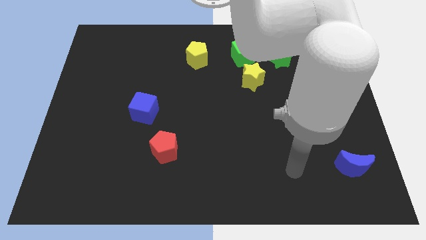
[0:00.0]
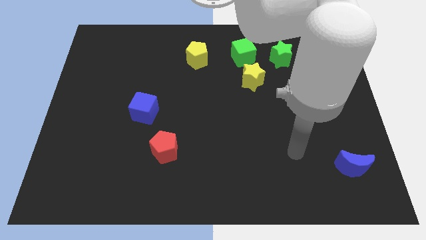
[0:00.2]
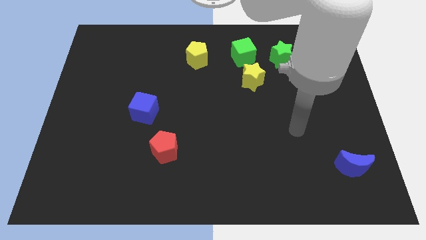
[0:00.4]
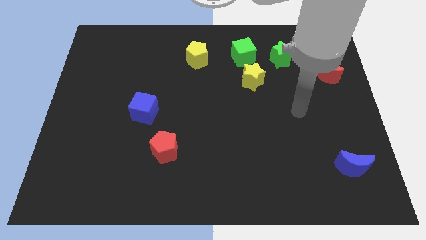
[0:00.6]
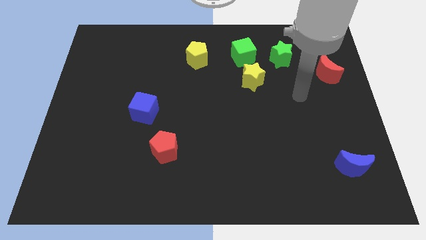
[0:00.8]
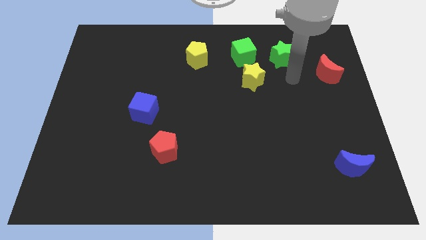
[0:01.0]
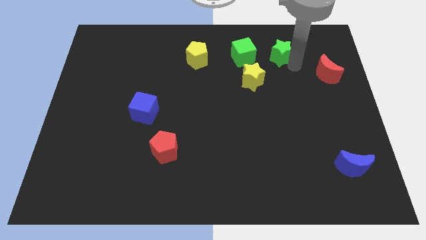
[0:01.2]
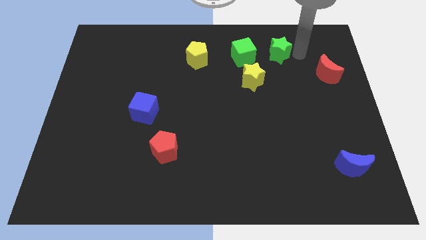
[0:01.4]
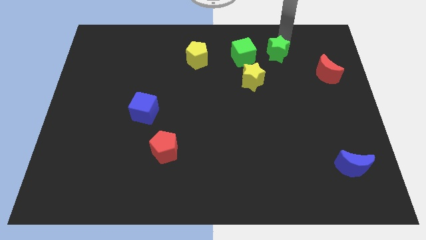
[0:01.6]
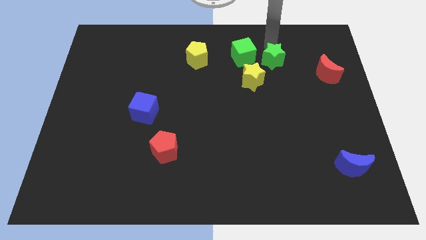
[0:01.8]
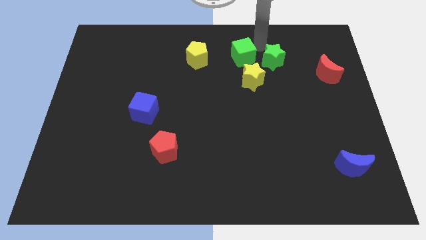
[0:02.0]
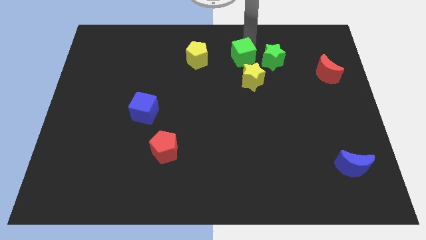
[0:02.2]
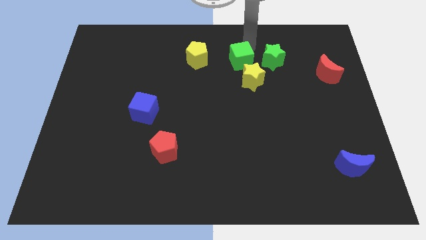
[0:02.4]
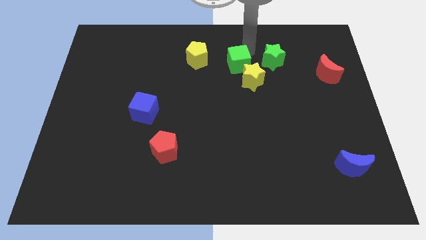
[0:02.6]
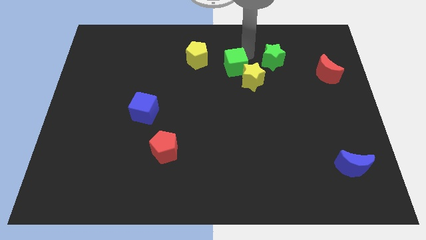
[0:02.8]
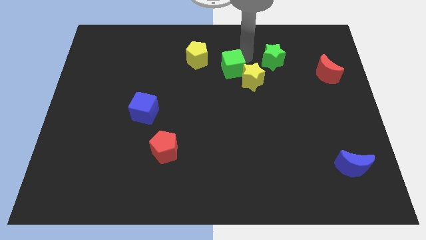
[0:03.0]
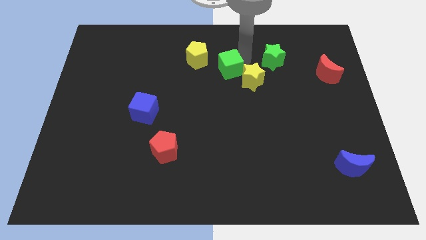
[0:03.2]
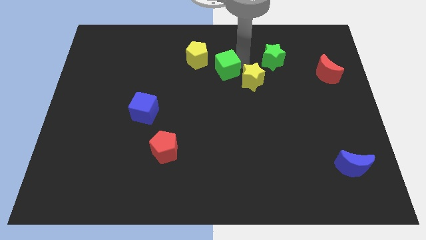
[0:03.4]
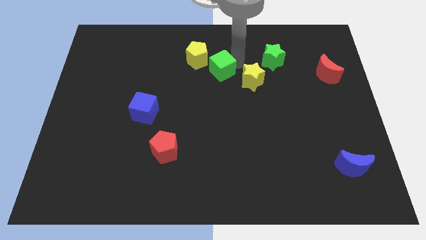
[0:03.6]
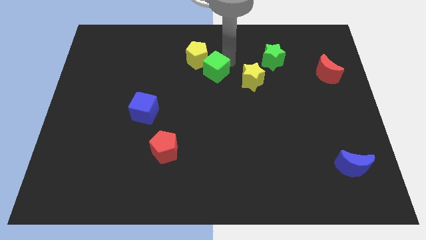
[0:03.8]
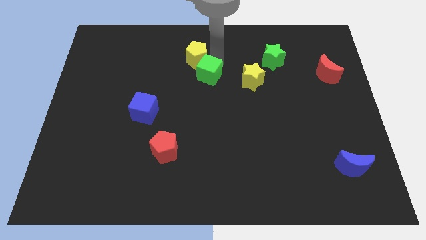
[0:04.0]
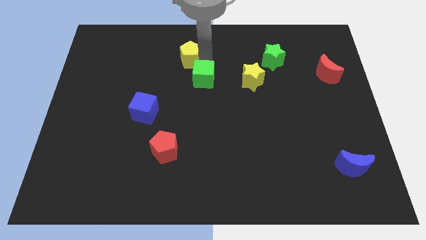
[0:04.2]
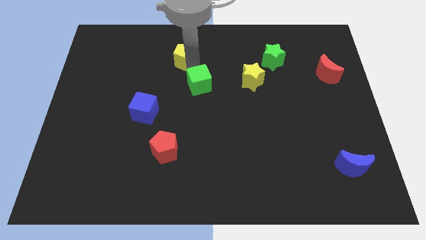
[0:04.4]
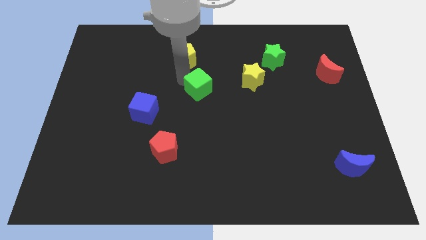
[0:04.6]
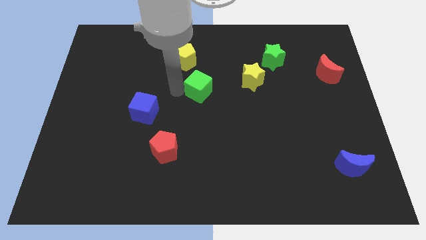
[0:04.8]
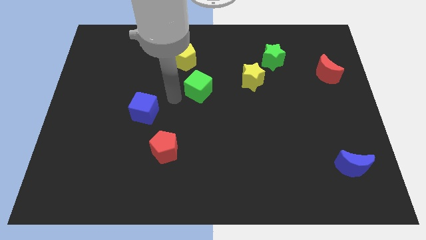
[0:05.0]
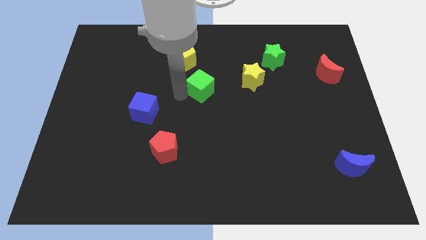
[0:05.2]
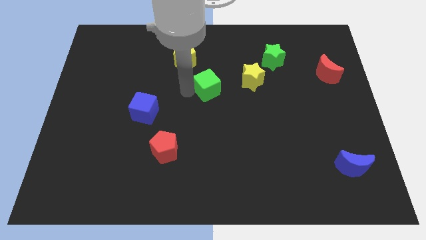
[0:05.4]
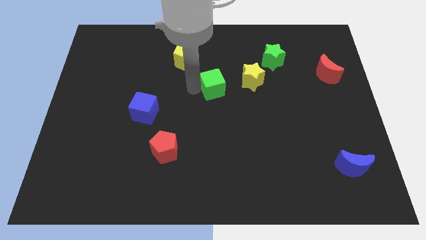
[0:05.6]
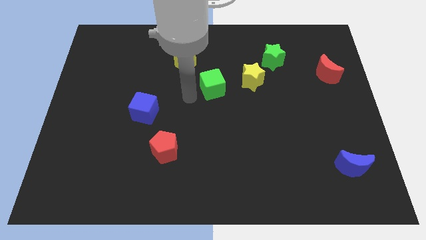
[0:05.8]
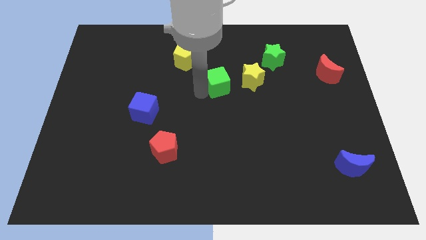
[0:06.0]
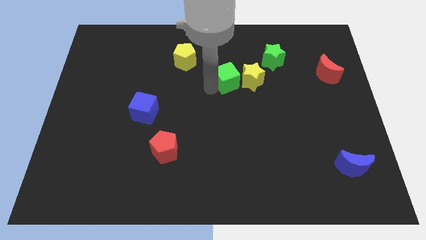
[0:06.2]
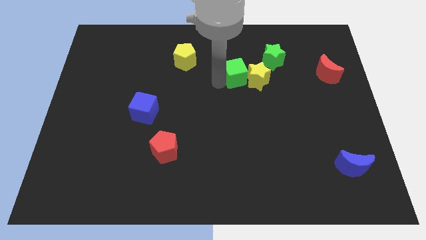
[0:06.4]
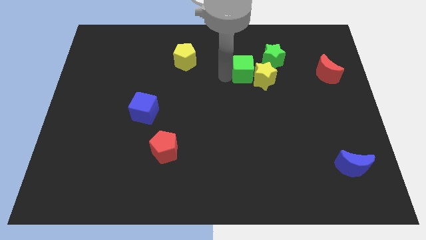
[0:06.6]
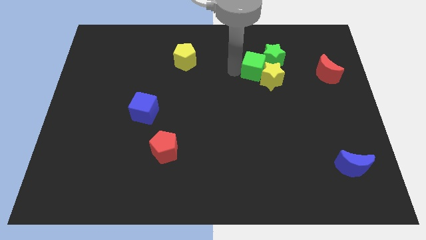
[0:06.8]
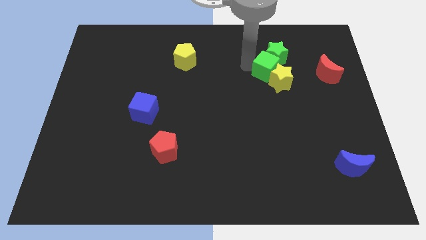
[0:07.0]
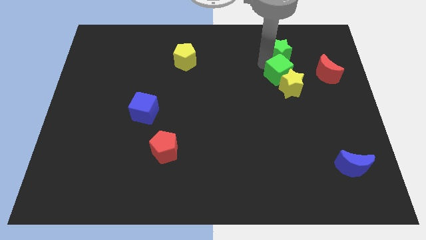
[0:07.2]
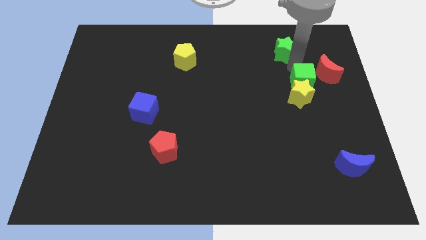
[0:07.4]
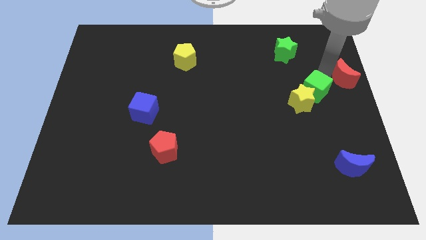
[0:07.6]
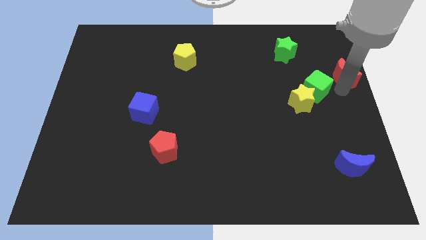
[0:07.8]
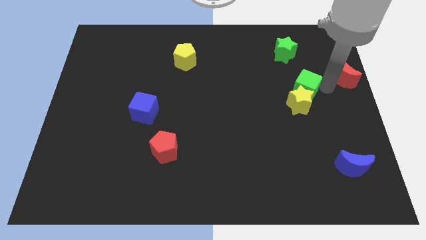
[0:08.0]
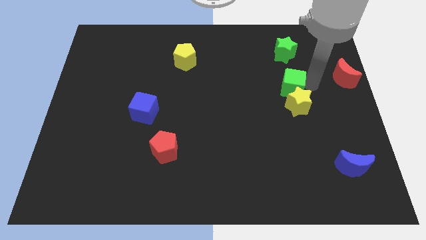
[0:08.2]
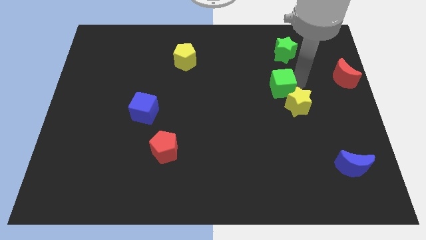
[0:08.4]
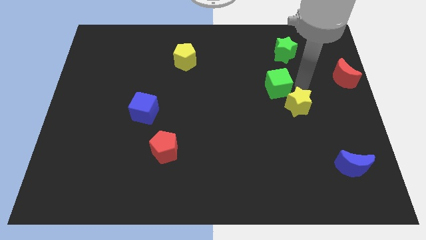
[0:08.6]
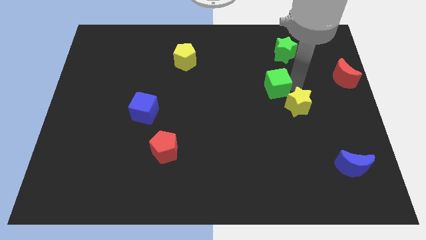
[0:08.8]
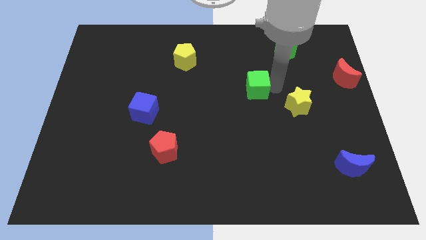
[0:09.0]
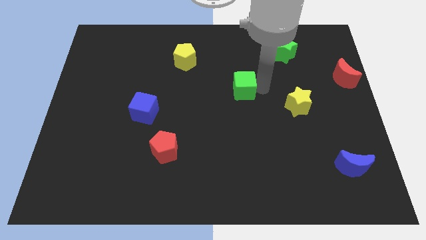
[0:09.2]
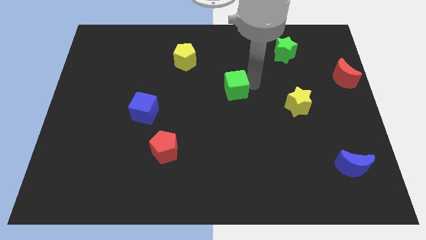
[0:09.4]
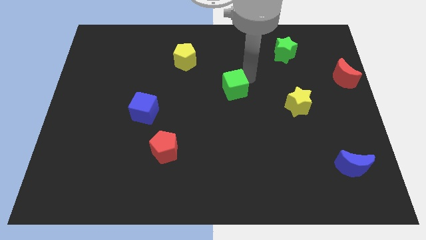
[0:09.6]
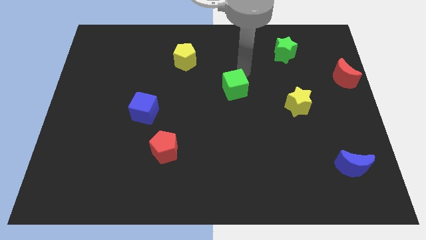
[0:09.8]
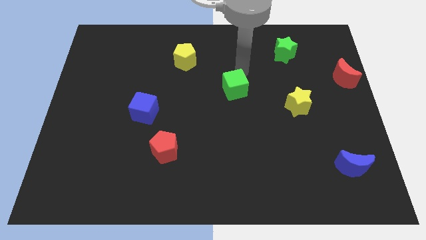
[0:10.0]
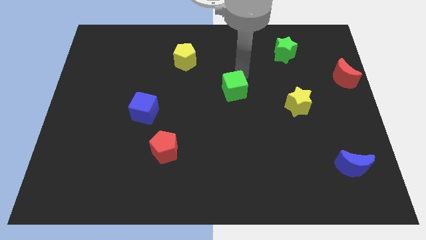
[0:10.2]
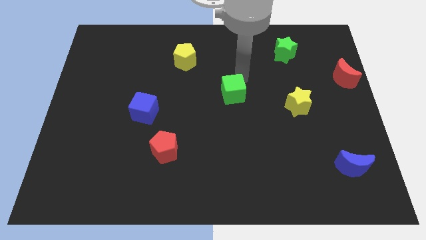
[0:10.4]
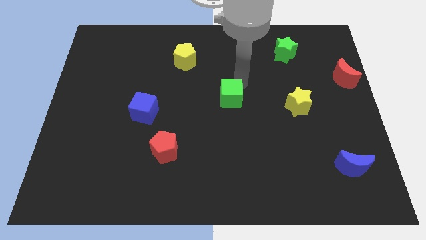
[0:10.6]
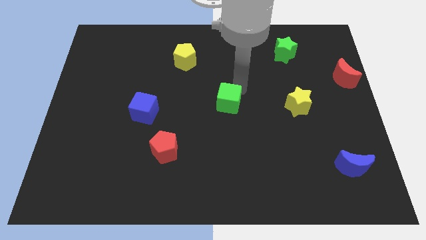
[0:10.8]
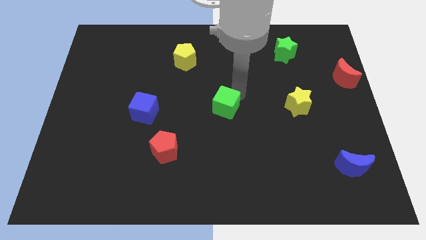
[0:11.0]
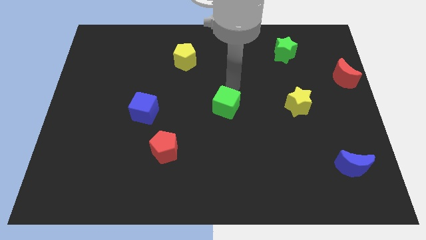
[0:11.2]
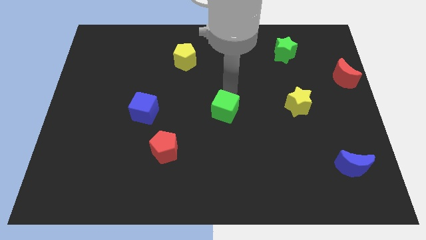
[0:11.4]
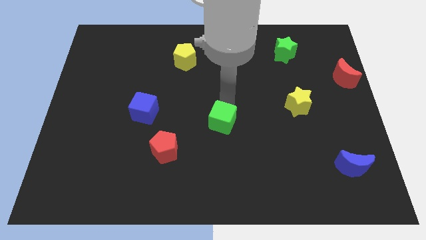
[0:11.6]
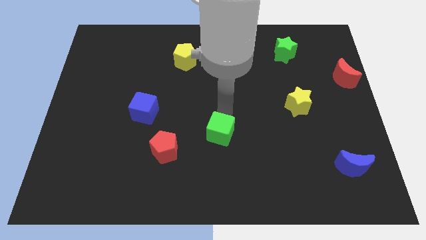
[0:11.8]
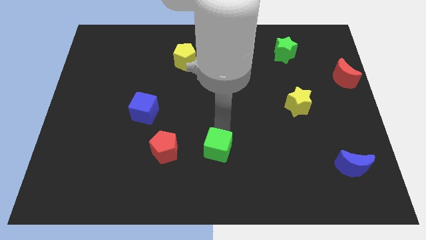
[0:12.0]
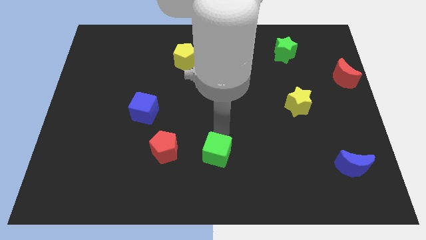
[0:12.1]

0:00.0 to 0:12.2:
put the green cube to the bottom side

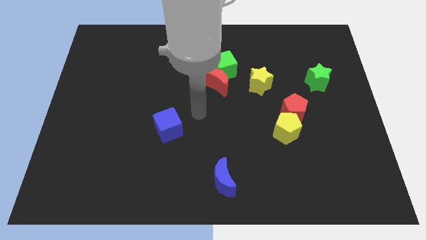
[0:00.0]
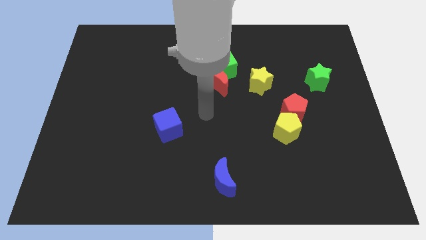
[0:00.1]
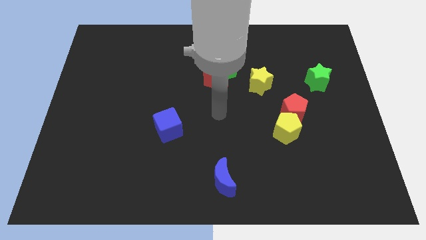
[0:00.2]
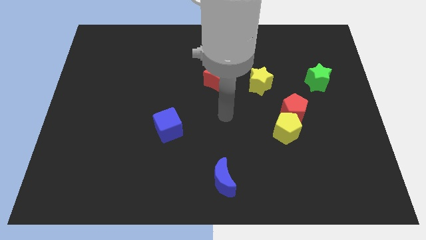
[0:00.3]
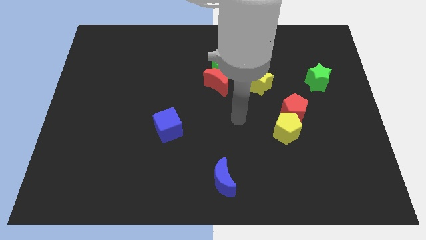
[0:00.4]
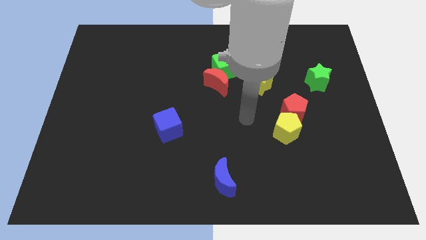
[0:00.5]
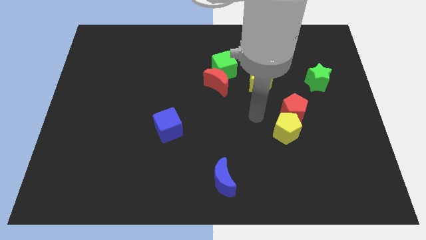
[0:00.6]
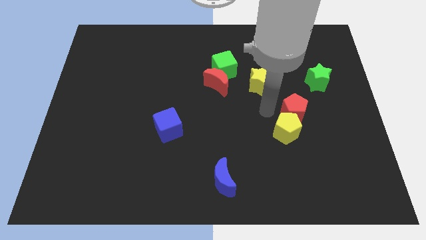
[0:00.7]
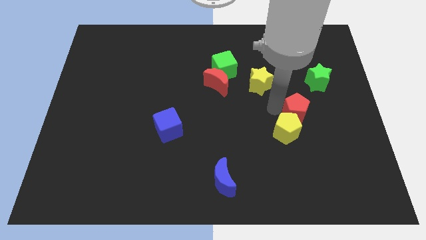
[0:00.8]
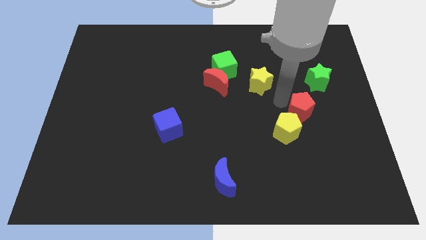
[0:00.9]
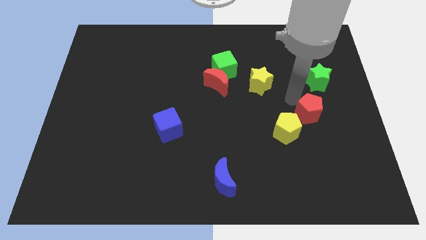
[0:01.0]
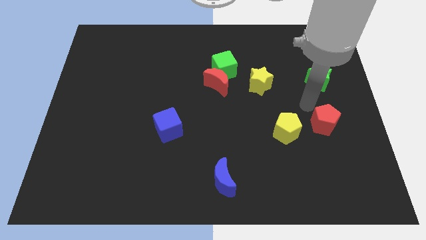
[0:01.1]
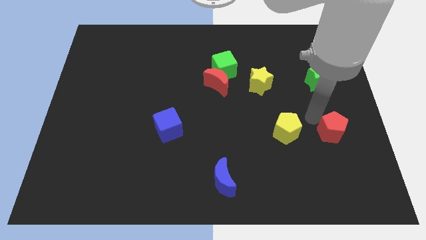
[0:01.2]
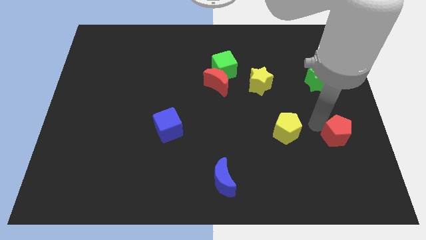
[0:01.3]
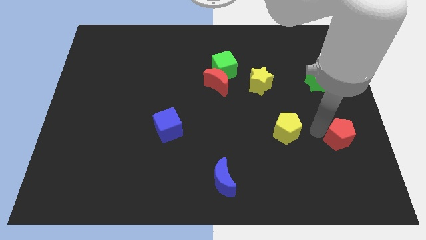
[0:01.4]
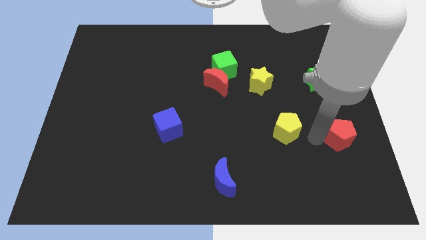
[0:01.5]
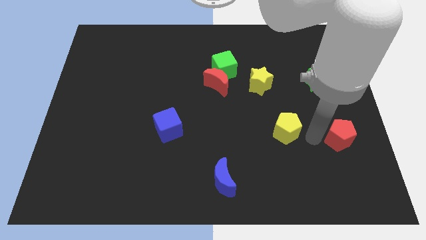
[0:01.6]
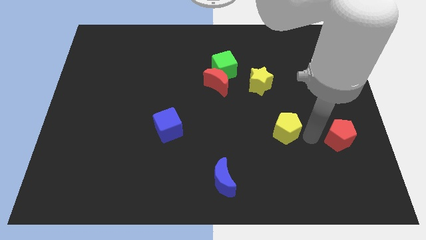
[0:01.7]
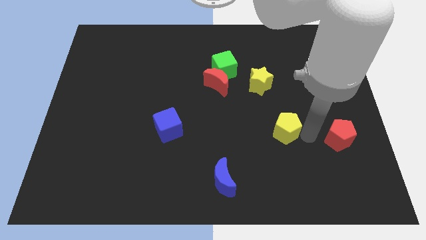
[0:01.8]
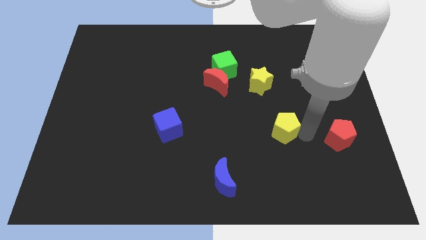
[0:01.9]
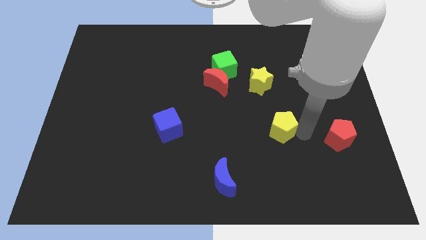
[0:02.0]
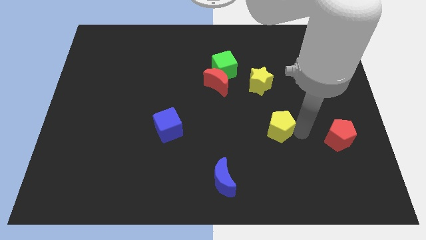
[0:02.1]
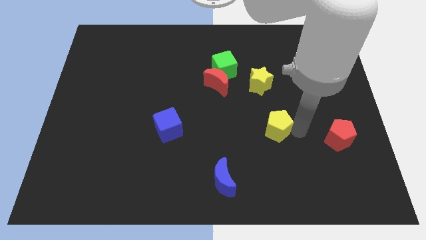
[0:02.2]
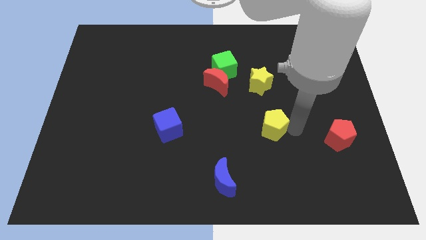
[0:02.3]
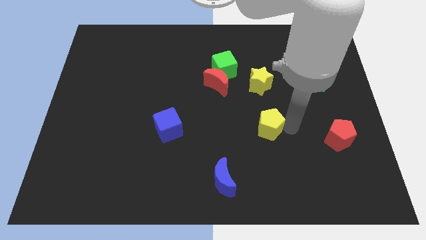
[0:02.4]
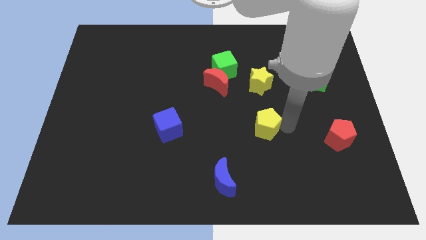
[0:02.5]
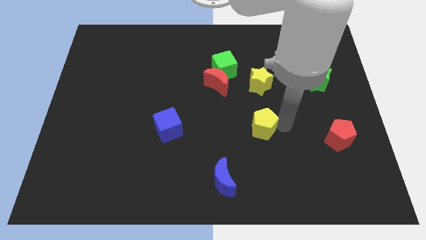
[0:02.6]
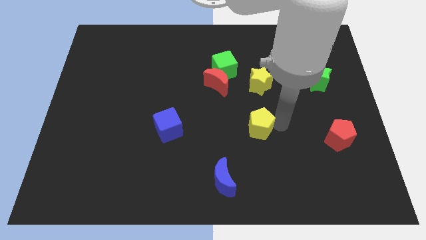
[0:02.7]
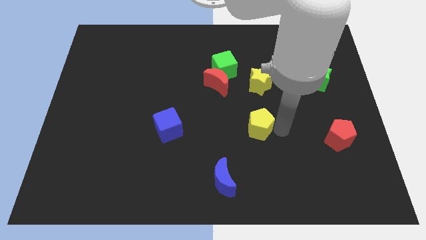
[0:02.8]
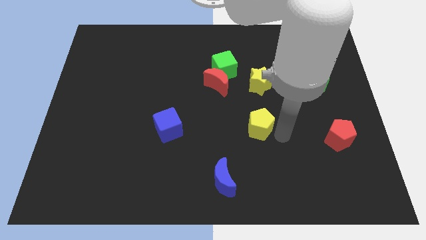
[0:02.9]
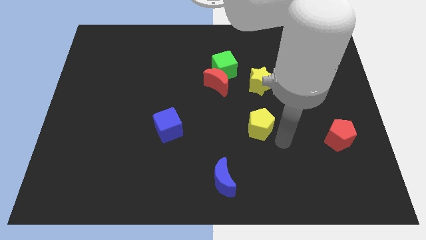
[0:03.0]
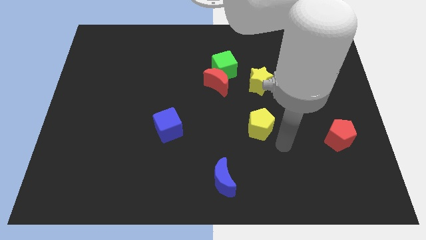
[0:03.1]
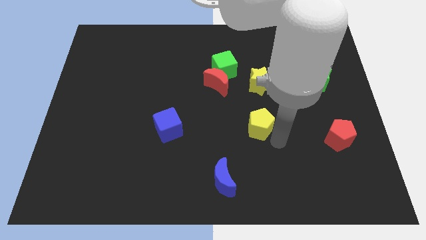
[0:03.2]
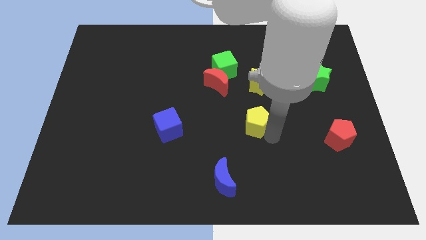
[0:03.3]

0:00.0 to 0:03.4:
slide the yellow pentagon to the middle
